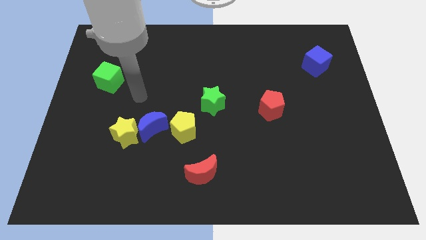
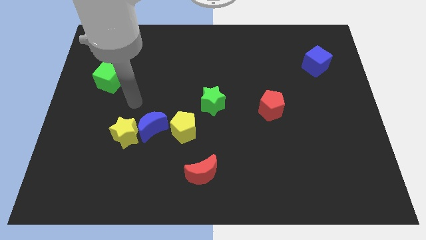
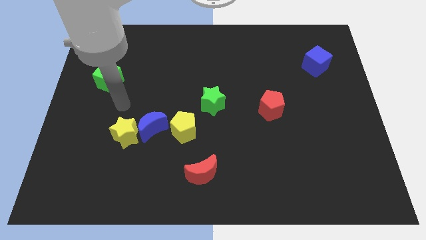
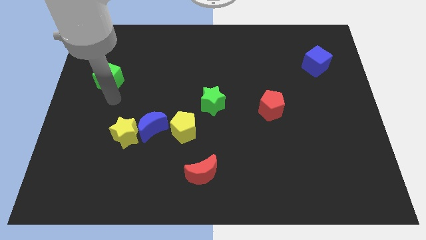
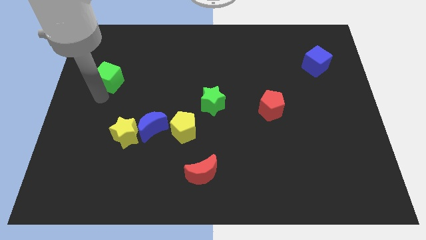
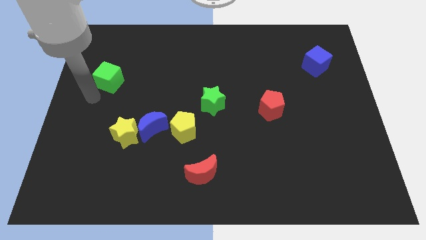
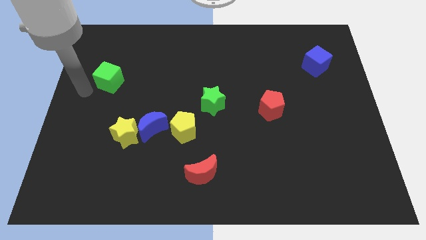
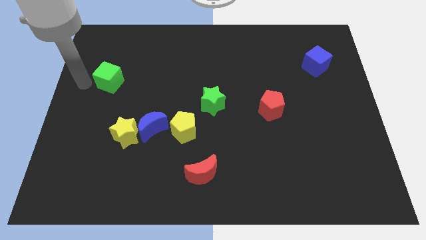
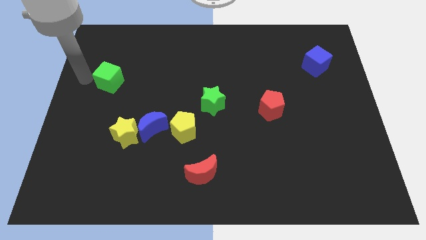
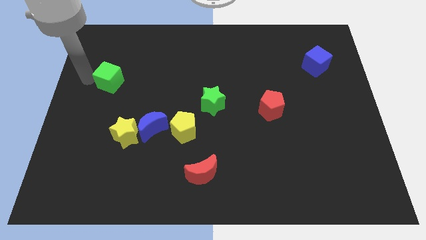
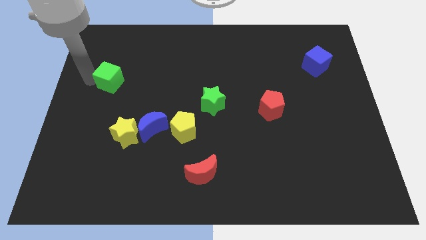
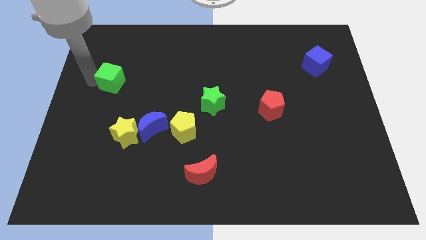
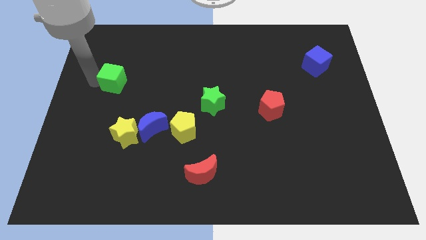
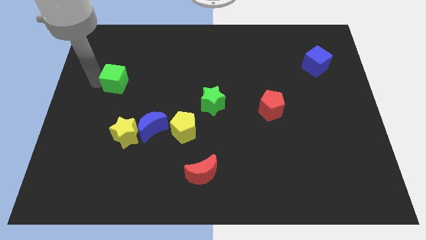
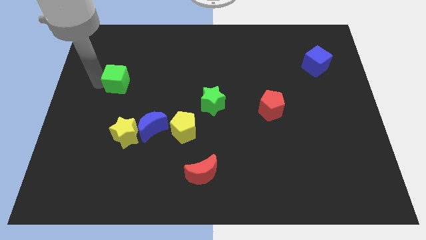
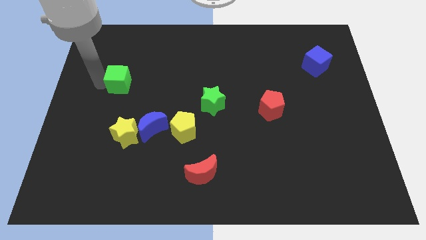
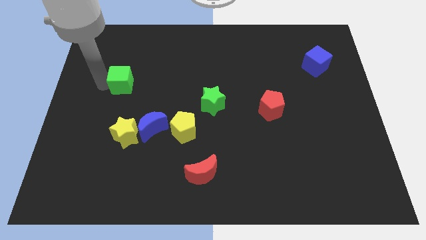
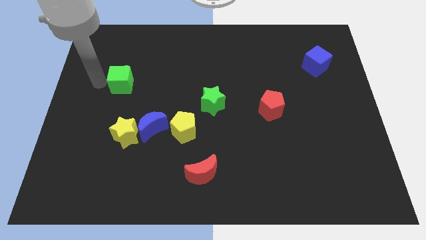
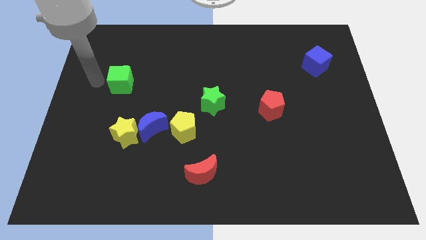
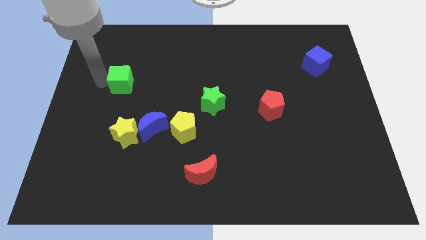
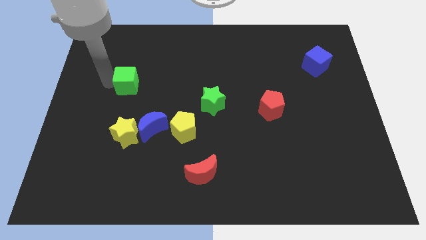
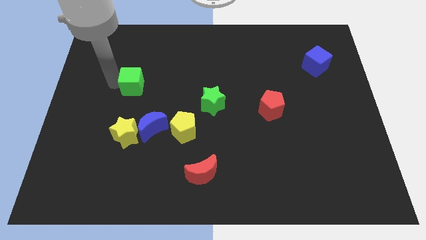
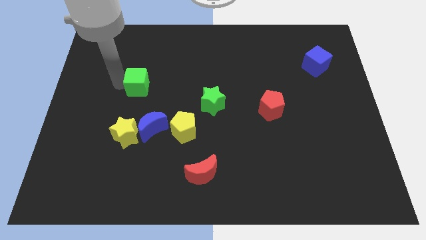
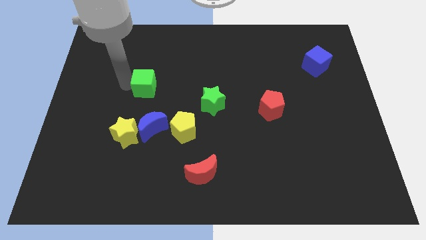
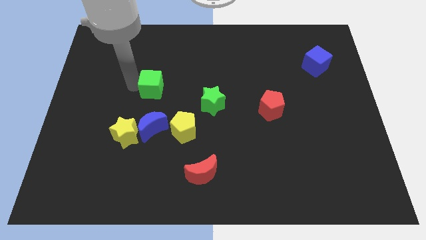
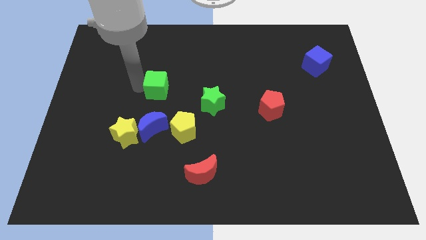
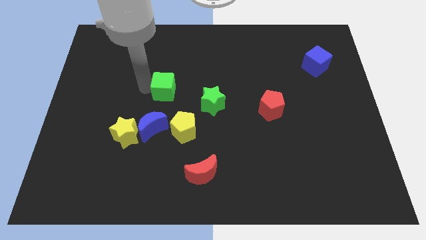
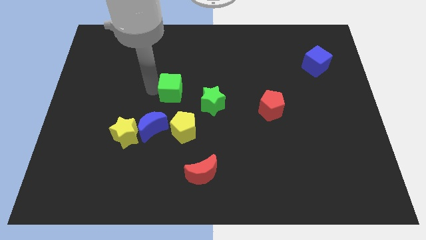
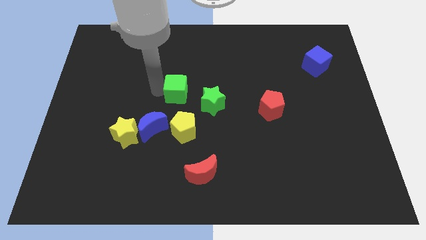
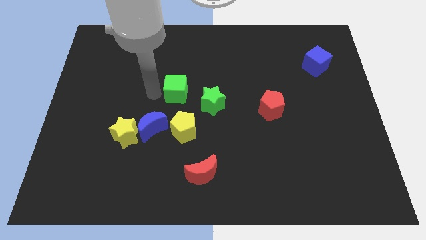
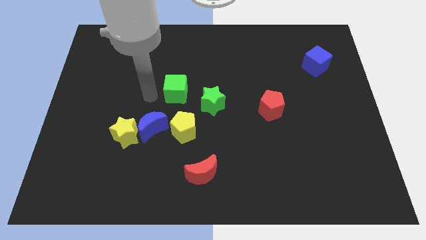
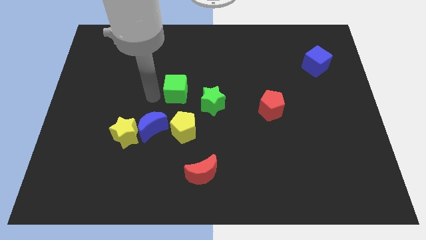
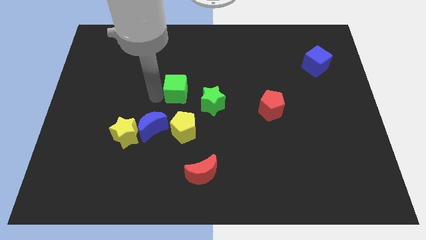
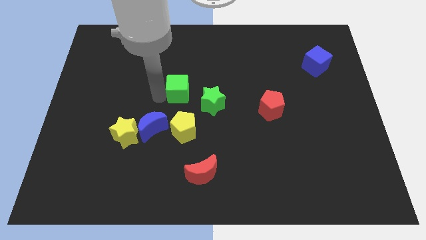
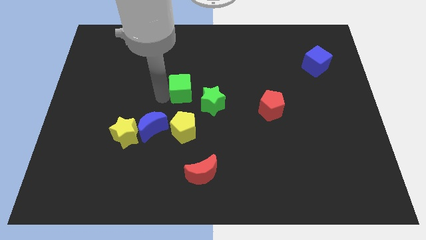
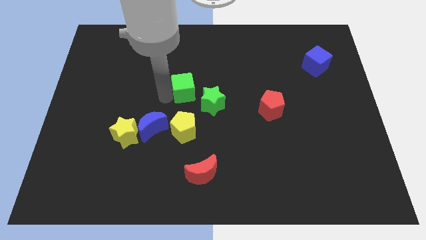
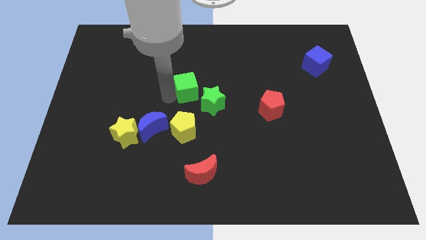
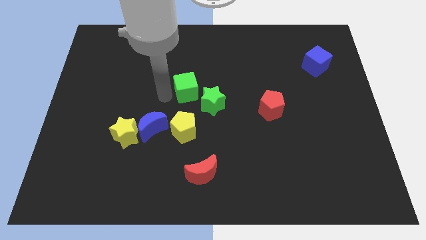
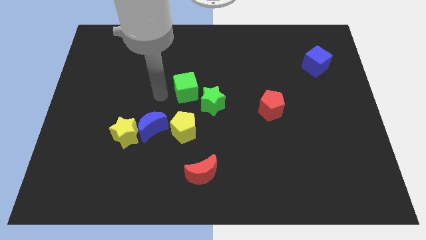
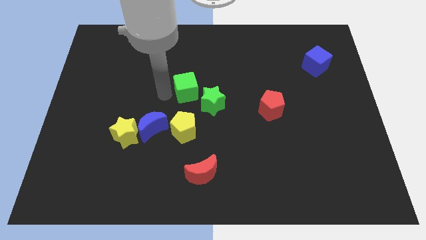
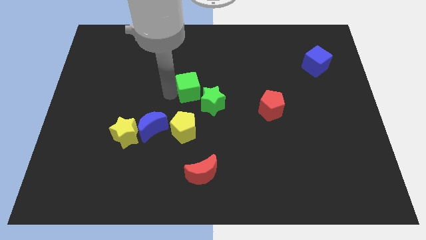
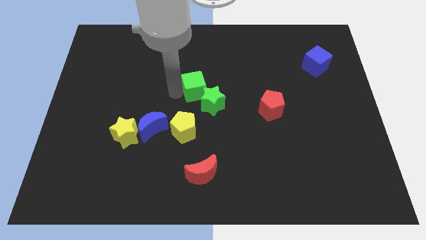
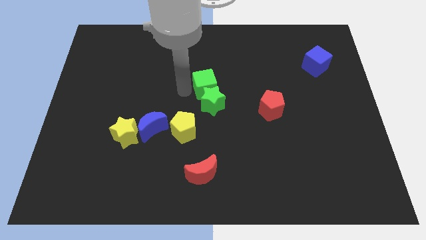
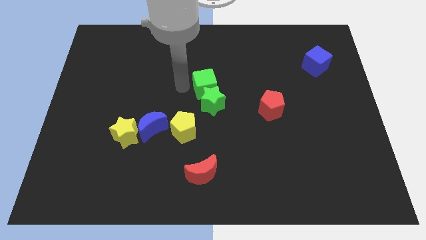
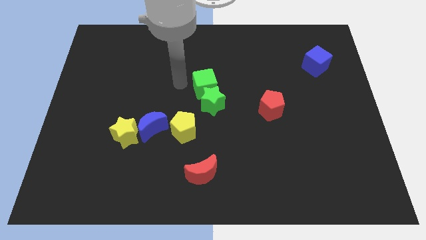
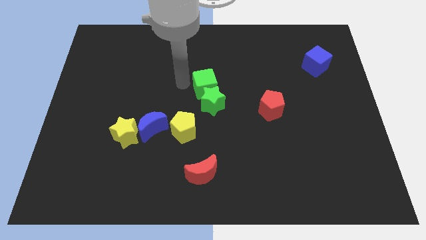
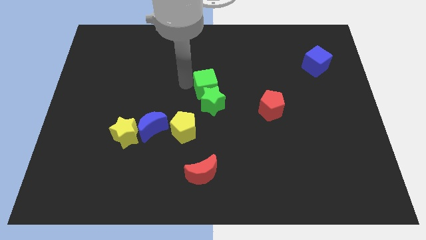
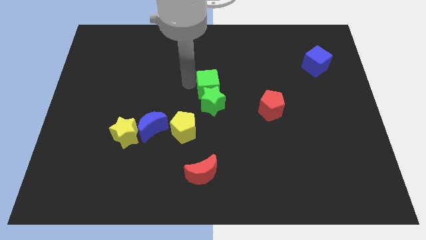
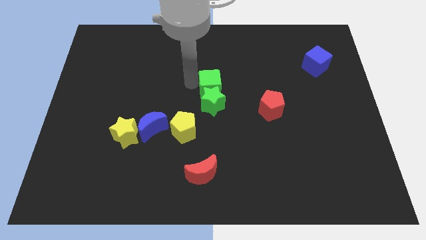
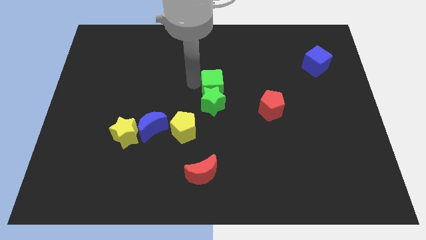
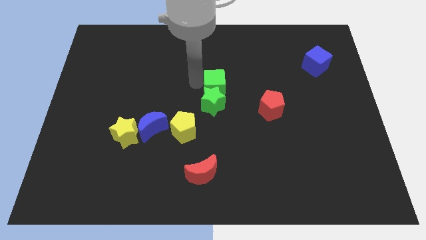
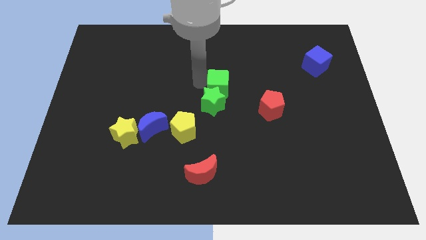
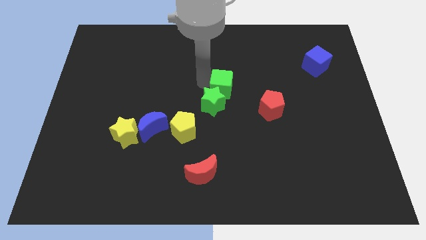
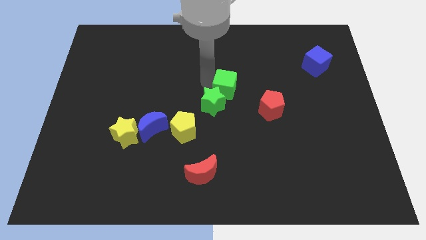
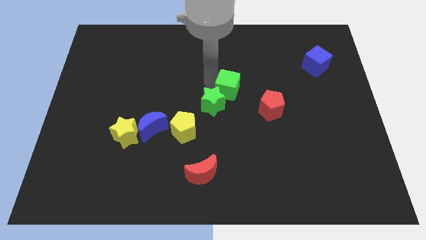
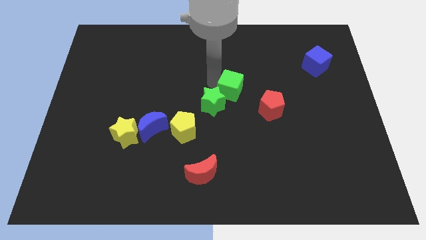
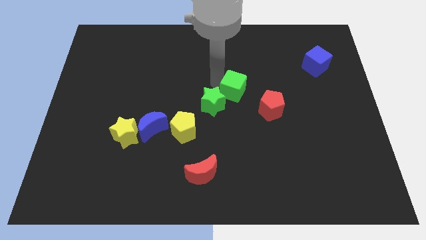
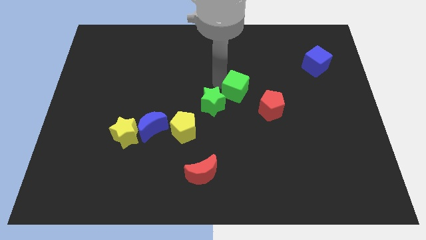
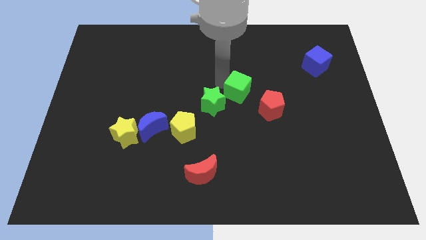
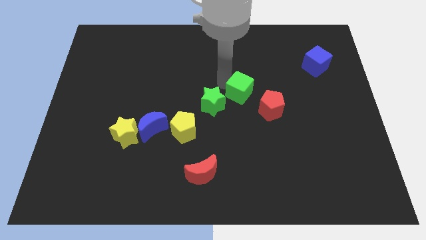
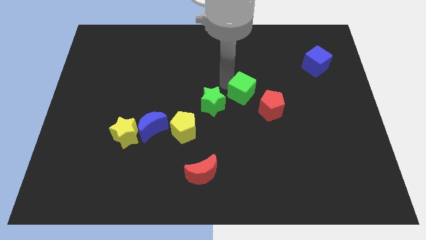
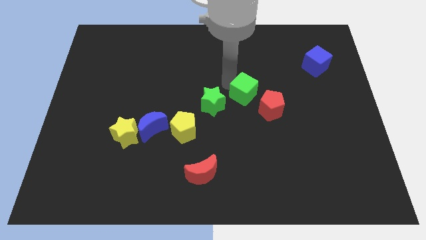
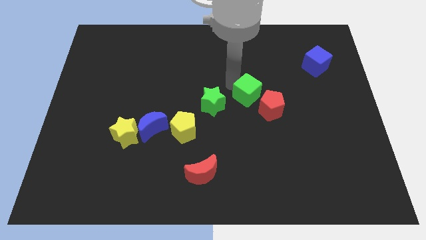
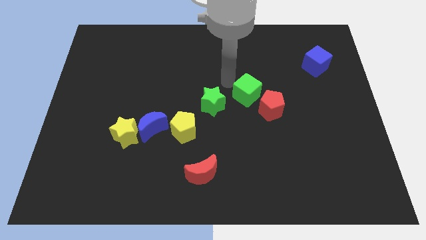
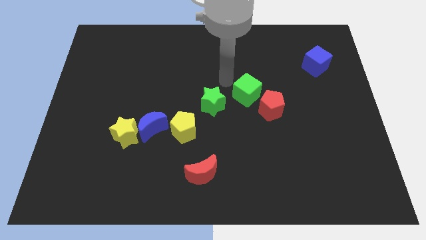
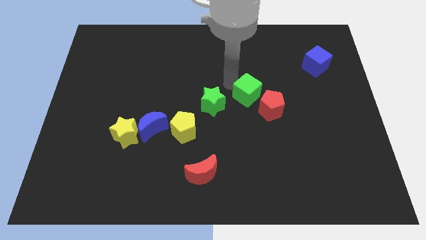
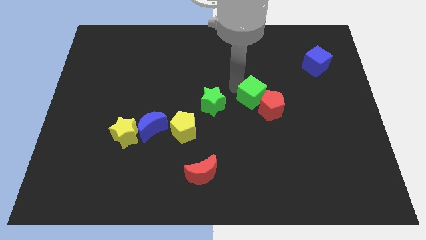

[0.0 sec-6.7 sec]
slide the green cube close to the red pentagon

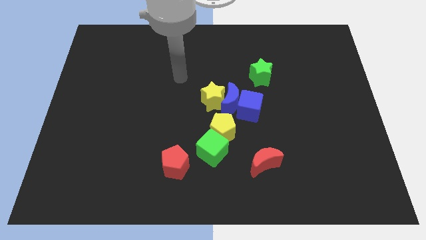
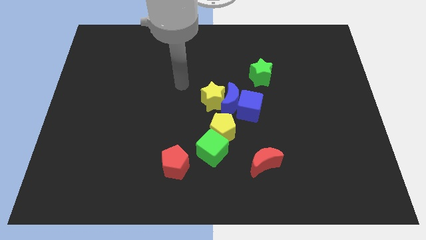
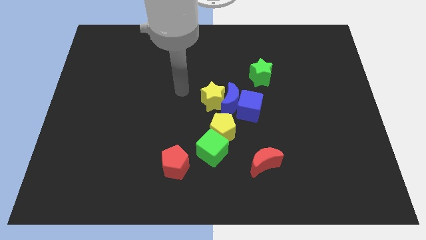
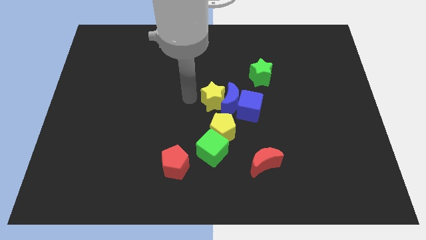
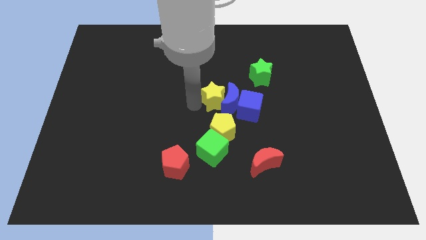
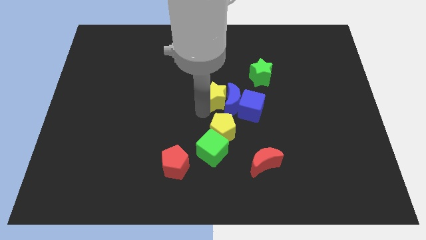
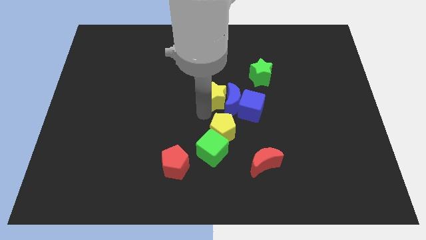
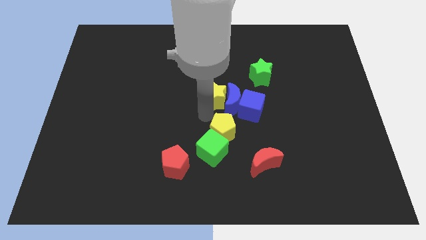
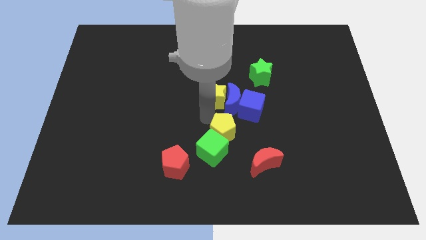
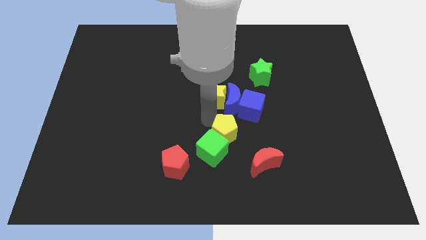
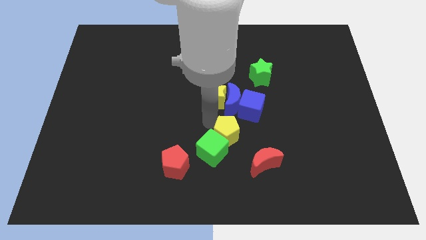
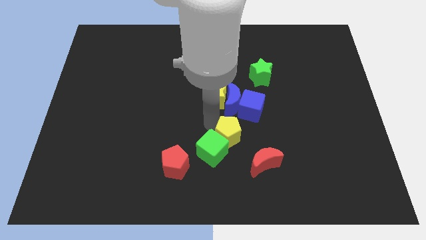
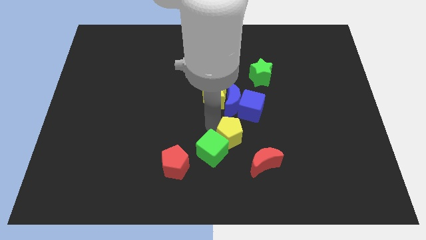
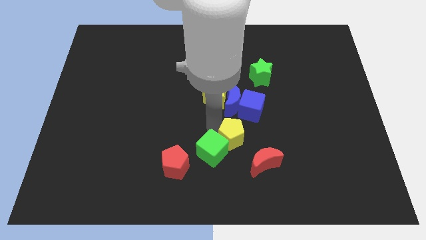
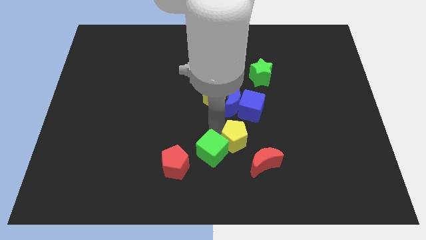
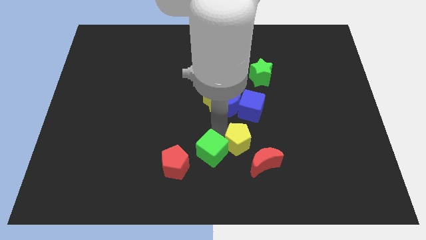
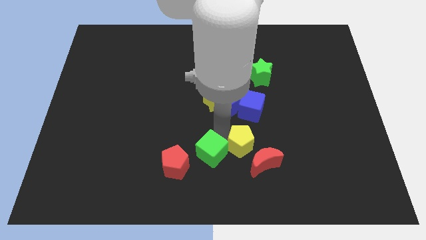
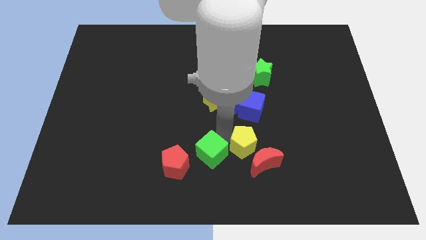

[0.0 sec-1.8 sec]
push the yellow pentagon towards the red moon
